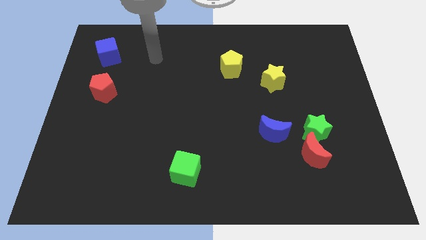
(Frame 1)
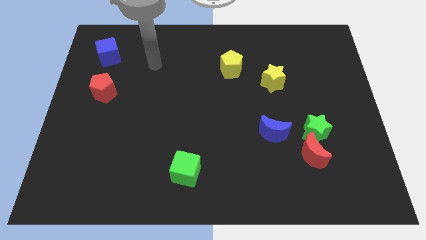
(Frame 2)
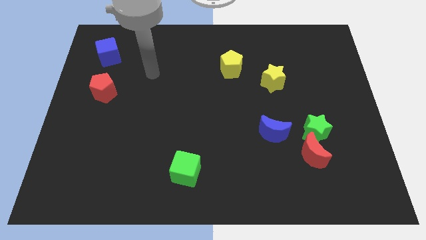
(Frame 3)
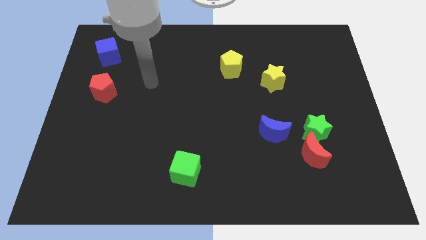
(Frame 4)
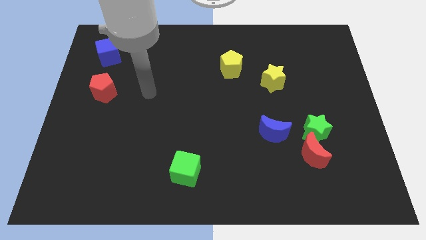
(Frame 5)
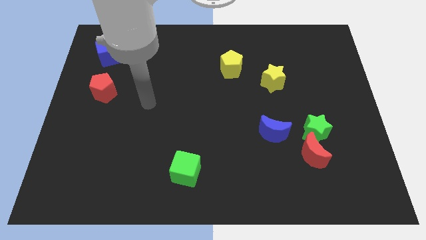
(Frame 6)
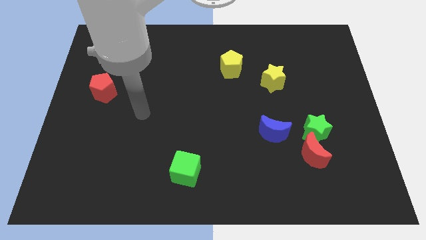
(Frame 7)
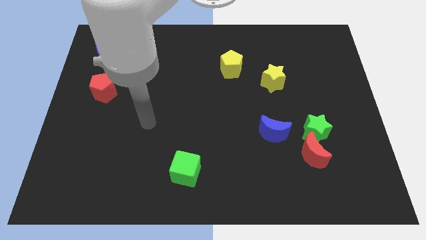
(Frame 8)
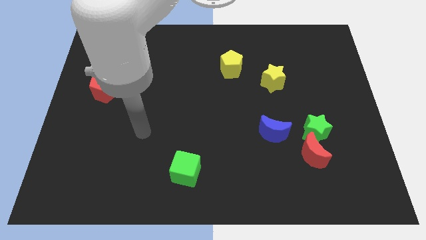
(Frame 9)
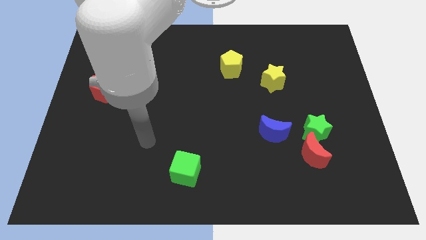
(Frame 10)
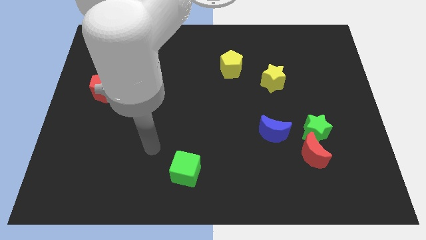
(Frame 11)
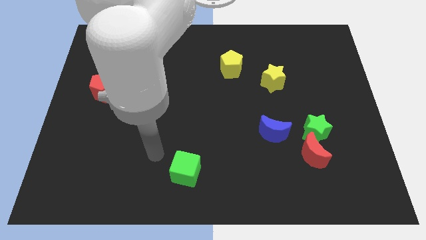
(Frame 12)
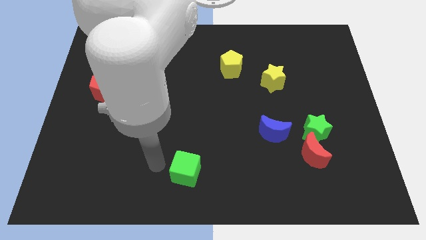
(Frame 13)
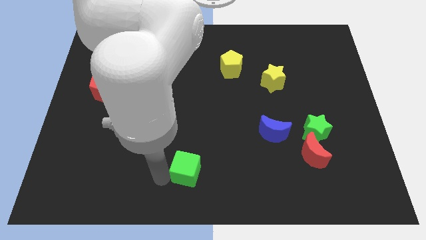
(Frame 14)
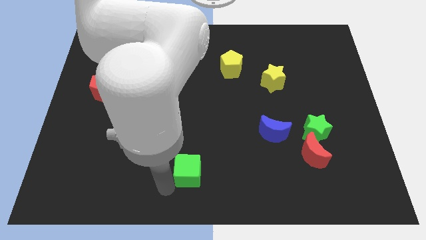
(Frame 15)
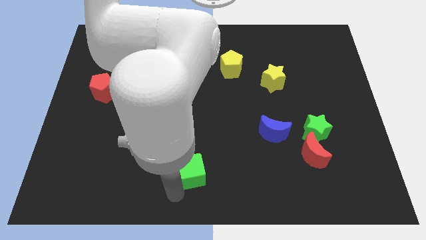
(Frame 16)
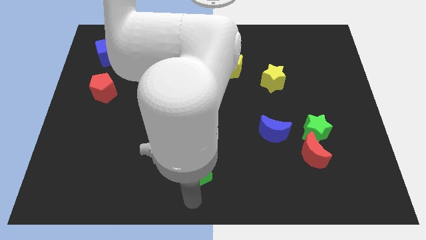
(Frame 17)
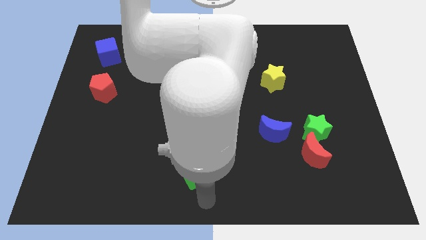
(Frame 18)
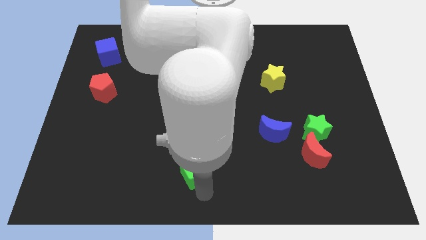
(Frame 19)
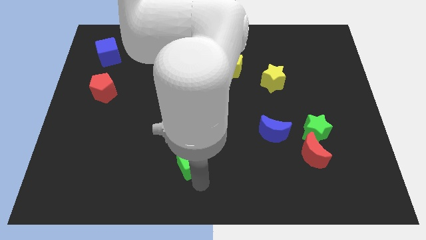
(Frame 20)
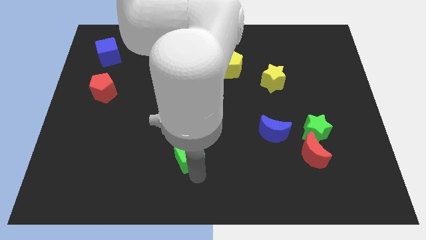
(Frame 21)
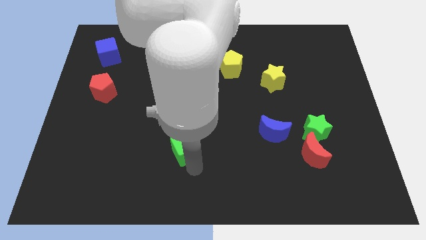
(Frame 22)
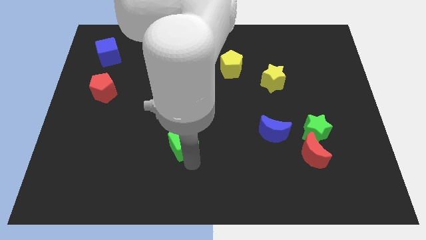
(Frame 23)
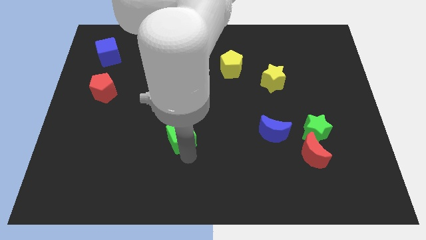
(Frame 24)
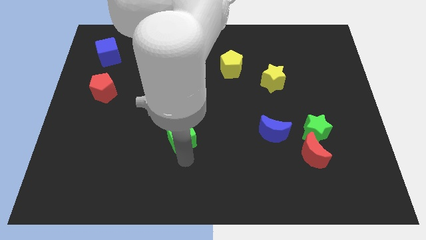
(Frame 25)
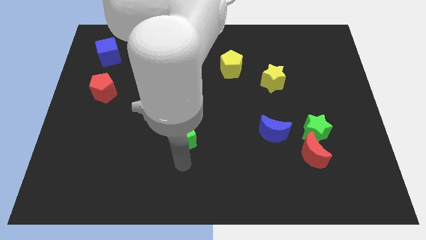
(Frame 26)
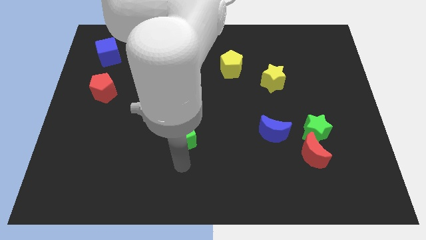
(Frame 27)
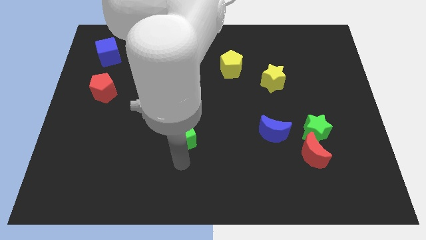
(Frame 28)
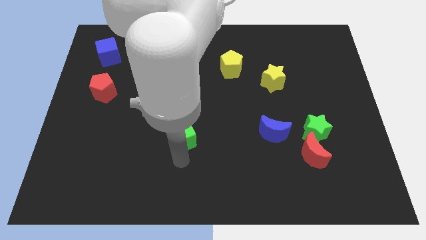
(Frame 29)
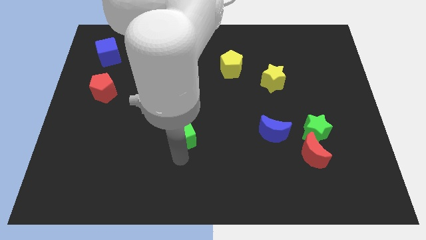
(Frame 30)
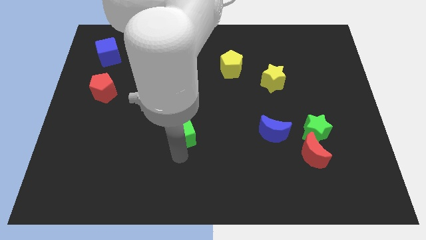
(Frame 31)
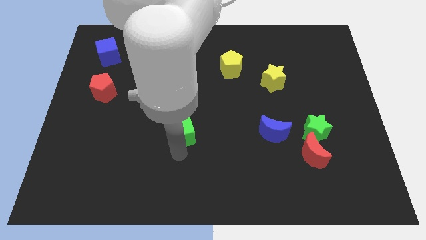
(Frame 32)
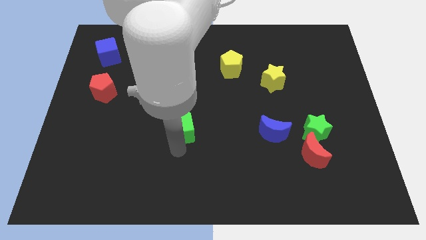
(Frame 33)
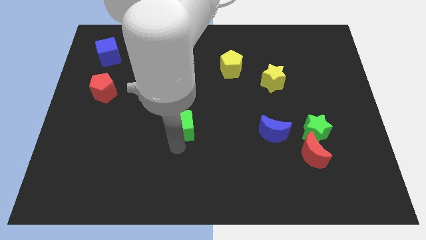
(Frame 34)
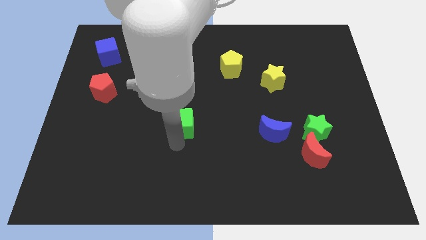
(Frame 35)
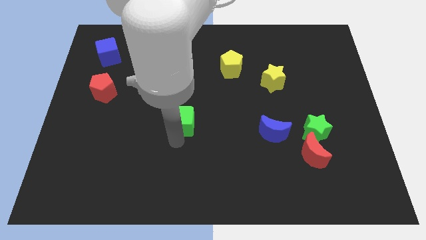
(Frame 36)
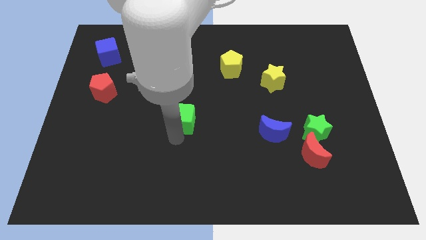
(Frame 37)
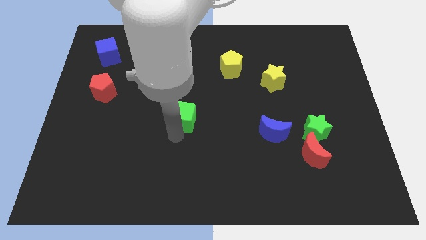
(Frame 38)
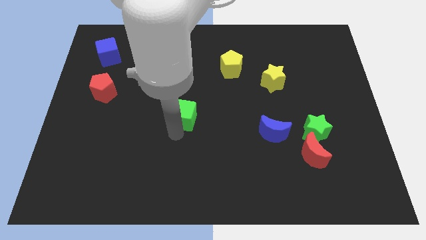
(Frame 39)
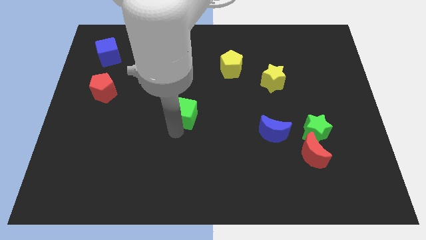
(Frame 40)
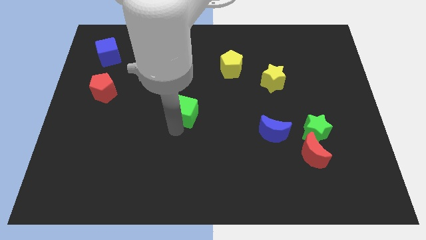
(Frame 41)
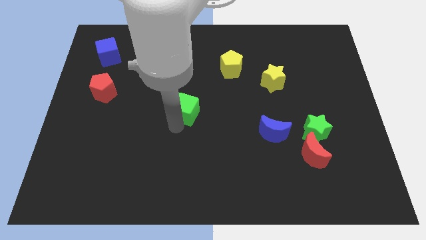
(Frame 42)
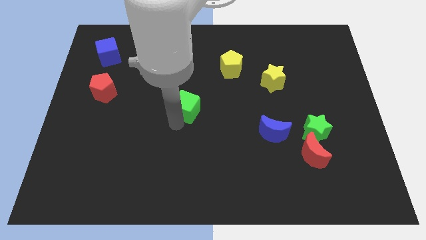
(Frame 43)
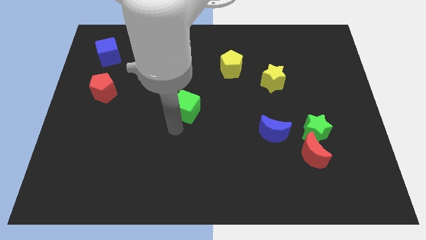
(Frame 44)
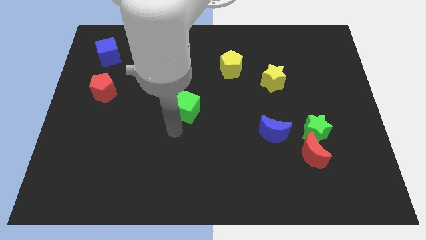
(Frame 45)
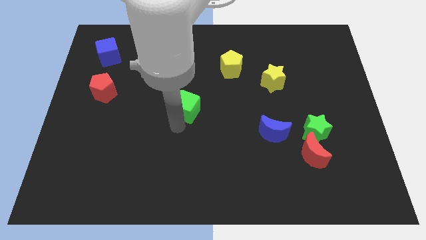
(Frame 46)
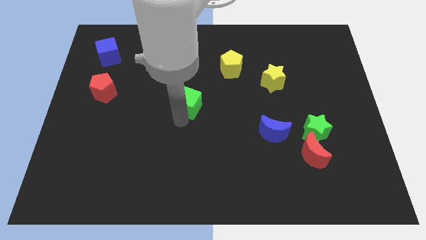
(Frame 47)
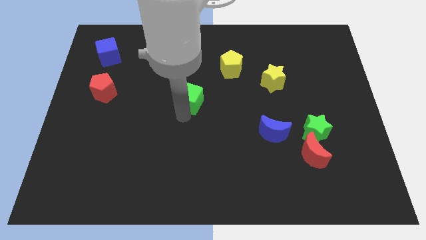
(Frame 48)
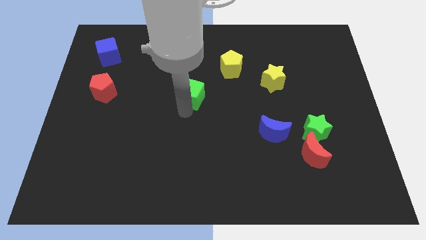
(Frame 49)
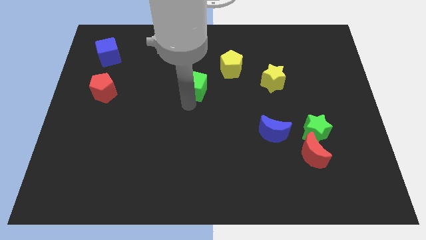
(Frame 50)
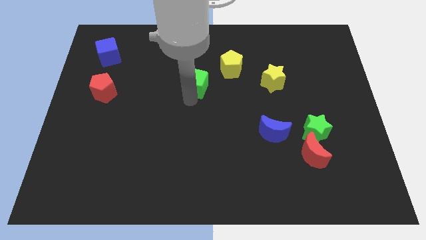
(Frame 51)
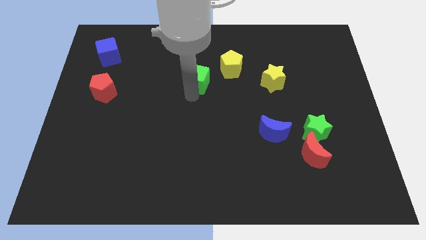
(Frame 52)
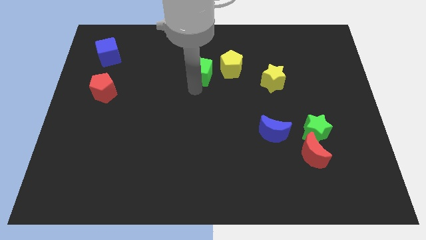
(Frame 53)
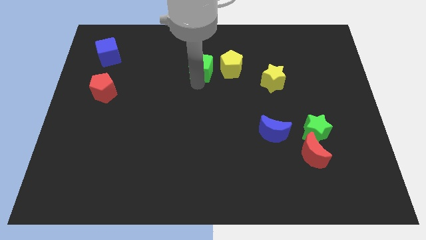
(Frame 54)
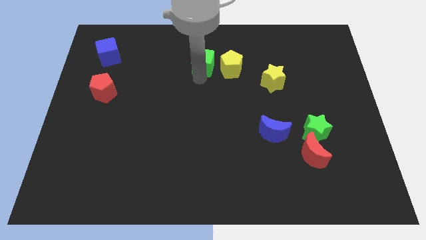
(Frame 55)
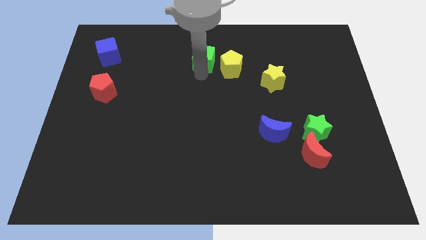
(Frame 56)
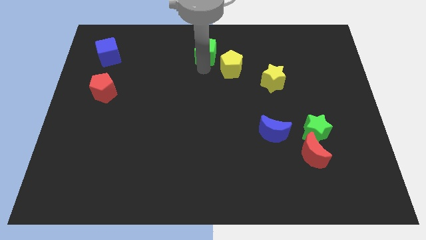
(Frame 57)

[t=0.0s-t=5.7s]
push the green cube to the towards your base

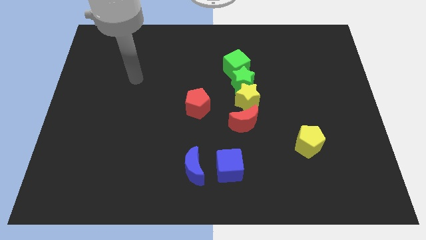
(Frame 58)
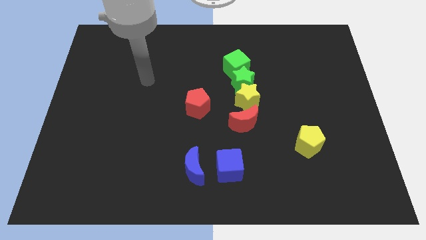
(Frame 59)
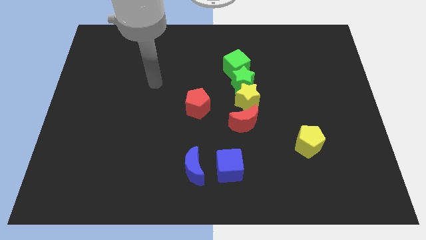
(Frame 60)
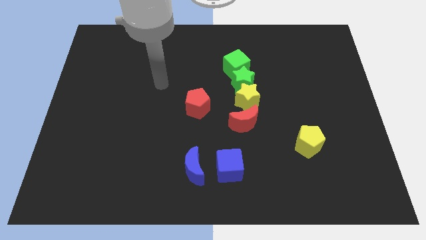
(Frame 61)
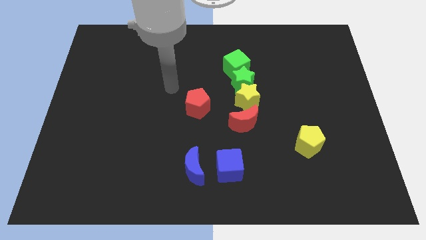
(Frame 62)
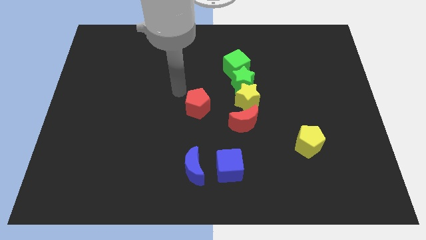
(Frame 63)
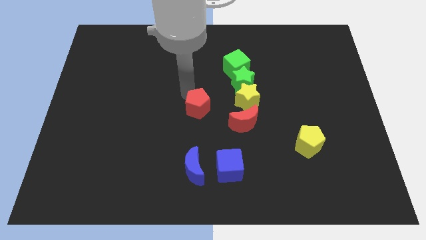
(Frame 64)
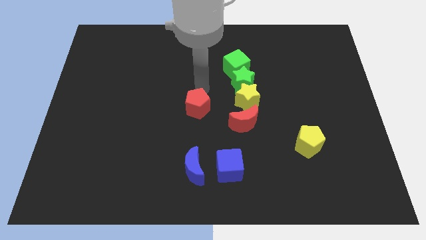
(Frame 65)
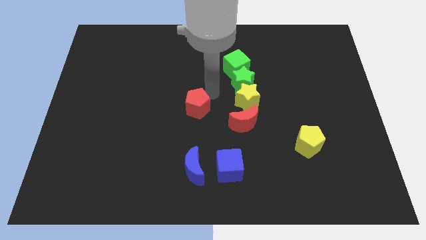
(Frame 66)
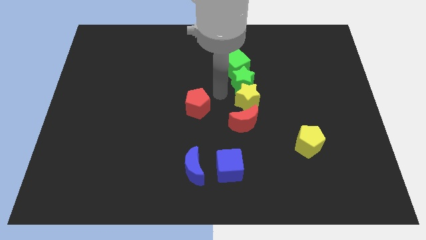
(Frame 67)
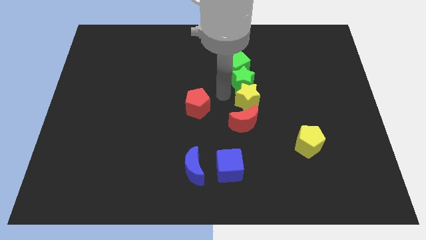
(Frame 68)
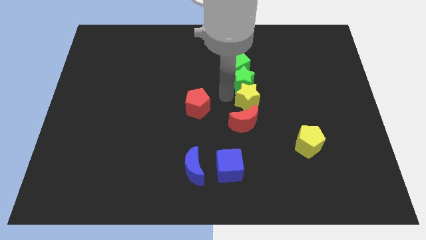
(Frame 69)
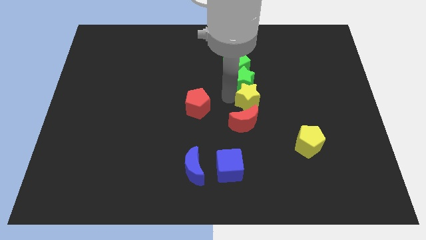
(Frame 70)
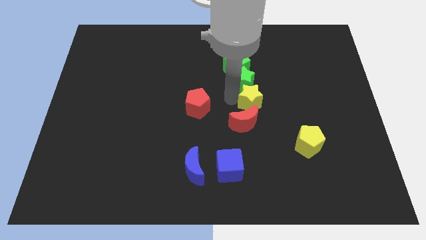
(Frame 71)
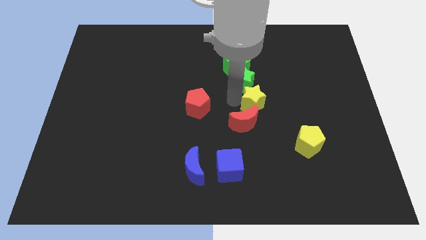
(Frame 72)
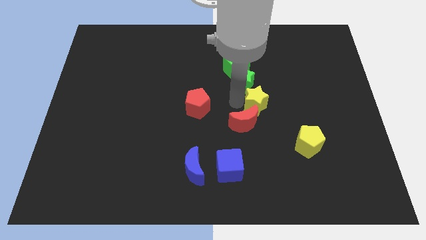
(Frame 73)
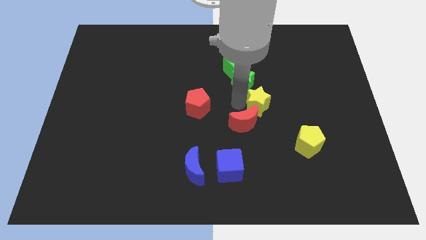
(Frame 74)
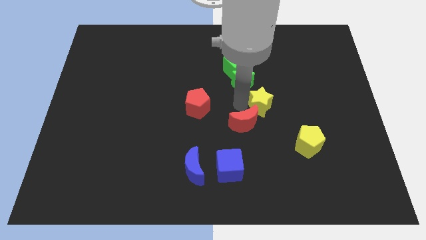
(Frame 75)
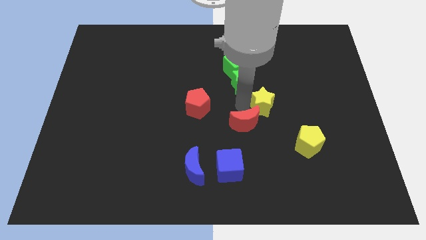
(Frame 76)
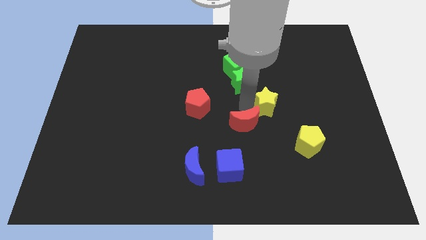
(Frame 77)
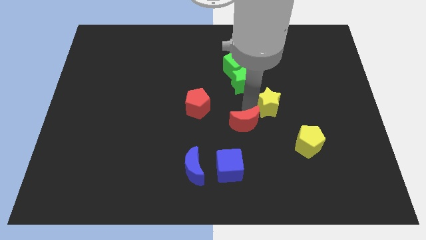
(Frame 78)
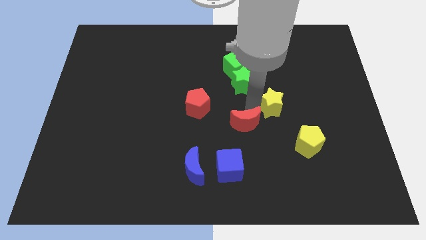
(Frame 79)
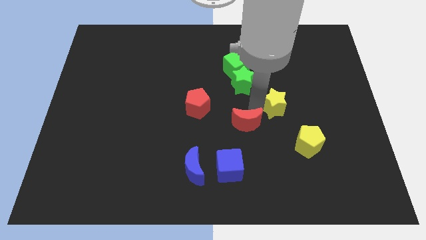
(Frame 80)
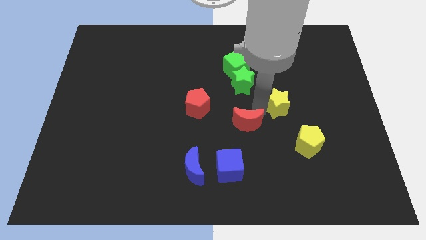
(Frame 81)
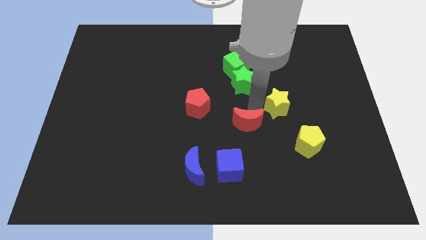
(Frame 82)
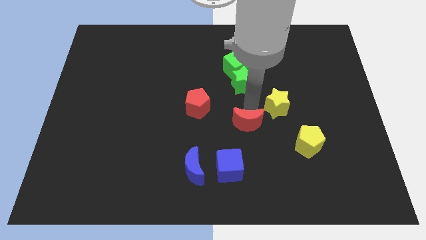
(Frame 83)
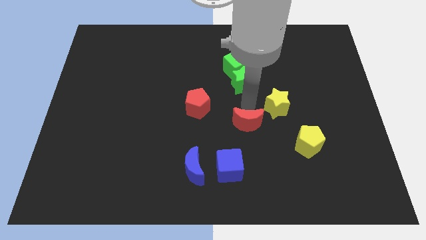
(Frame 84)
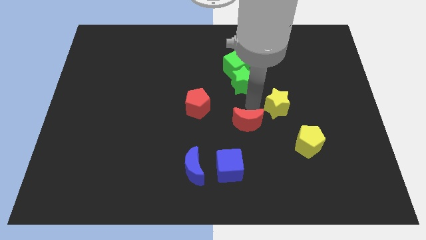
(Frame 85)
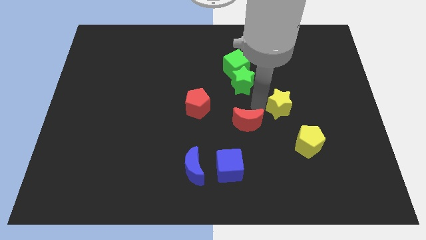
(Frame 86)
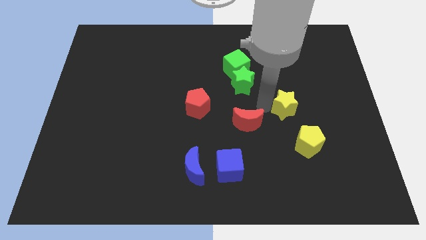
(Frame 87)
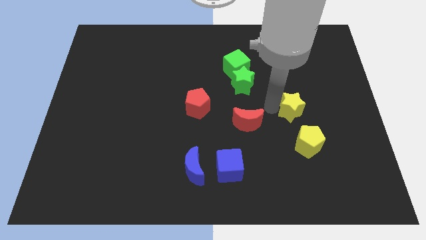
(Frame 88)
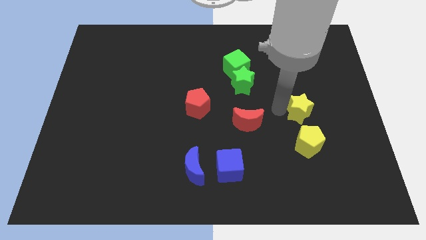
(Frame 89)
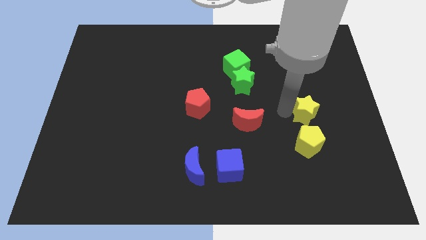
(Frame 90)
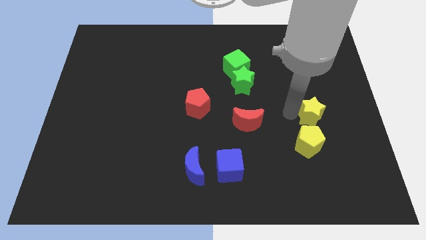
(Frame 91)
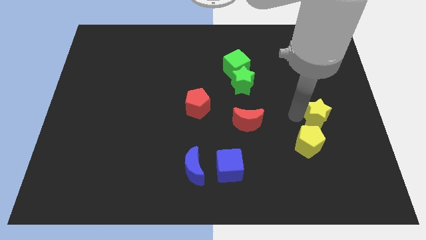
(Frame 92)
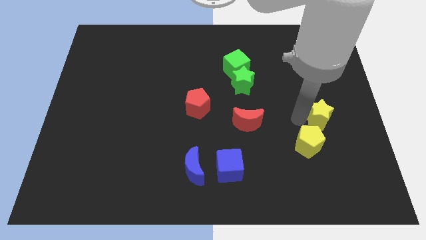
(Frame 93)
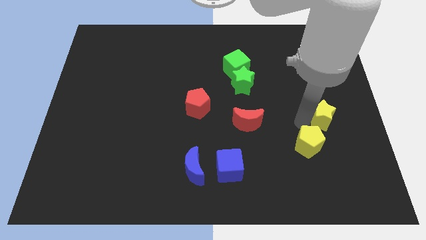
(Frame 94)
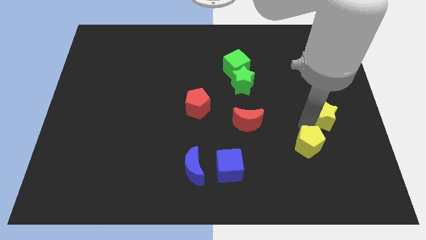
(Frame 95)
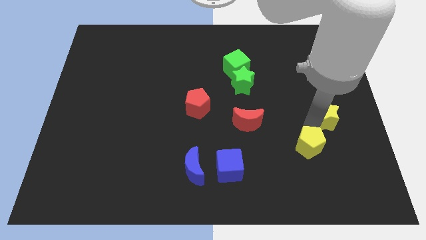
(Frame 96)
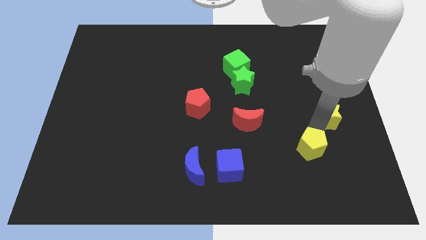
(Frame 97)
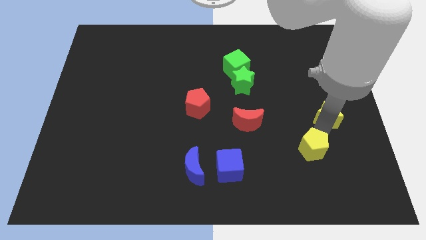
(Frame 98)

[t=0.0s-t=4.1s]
put the yellow star to the right side of the board
